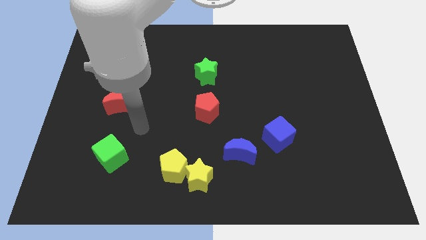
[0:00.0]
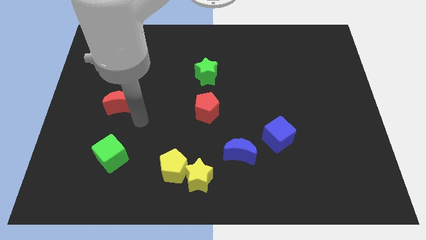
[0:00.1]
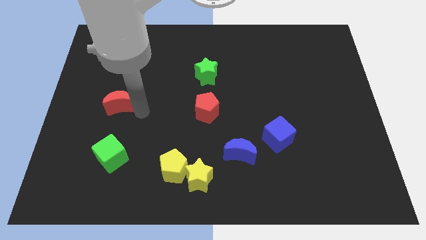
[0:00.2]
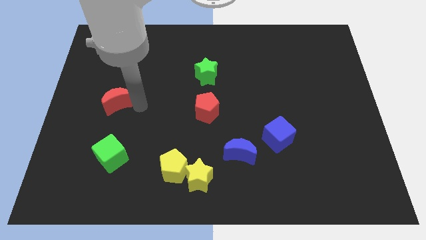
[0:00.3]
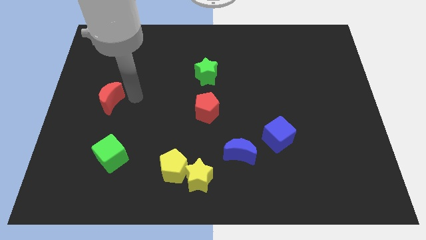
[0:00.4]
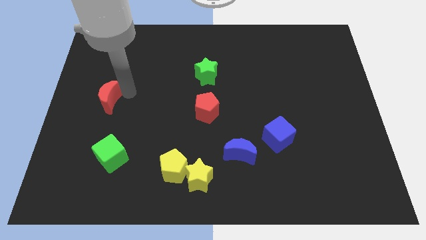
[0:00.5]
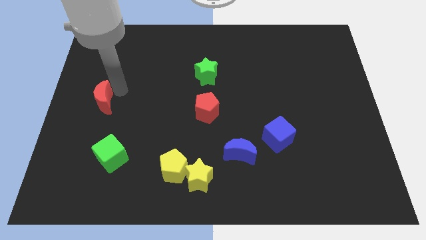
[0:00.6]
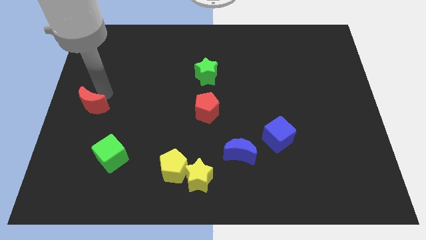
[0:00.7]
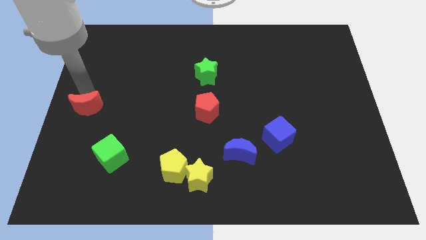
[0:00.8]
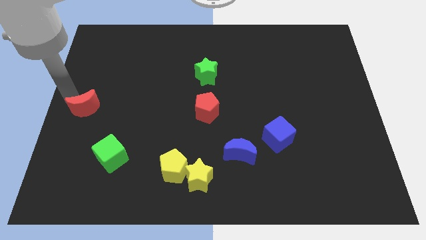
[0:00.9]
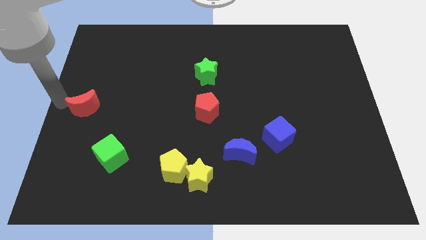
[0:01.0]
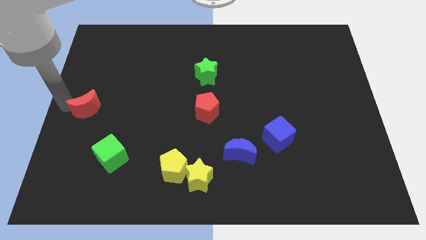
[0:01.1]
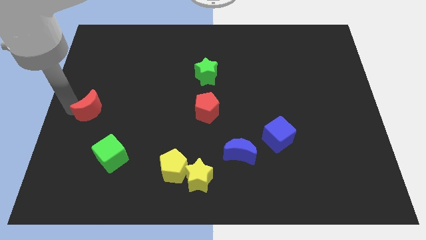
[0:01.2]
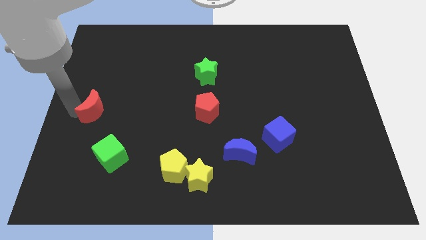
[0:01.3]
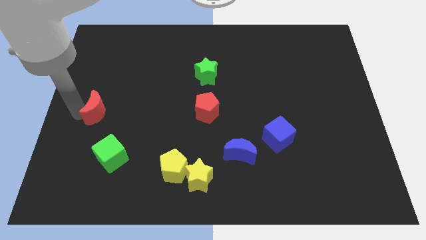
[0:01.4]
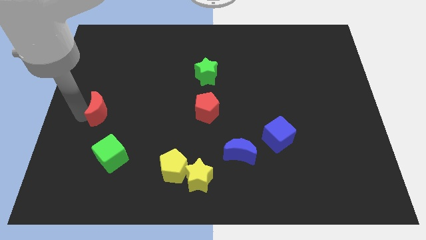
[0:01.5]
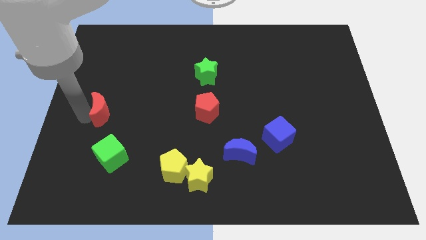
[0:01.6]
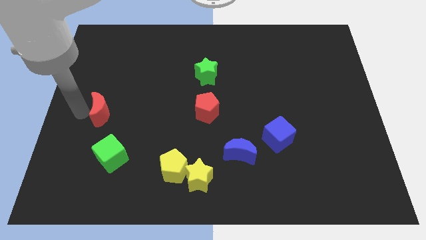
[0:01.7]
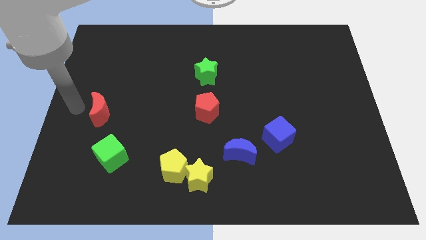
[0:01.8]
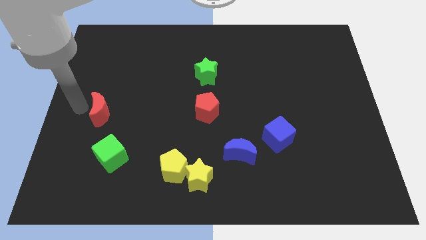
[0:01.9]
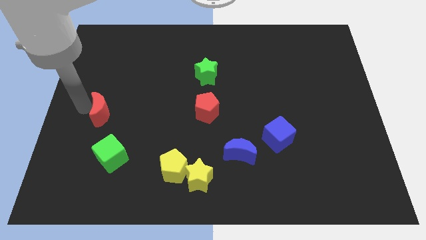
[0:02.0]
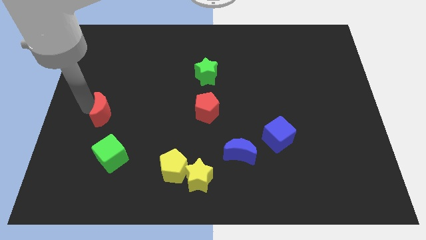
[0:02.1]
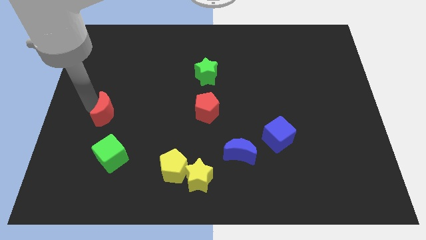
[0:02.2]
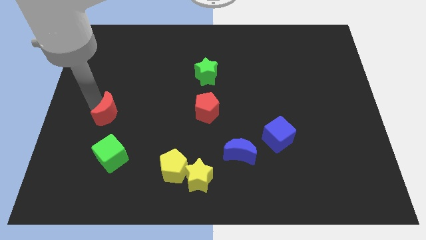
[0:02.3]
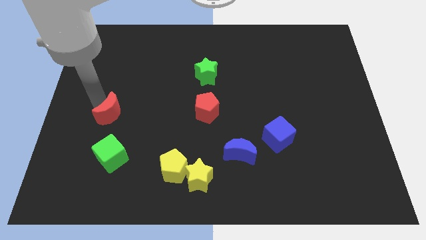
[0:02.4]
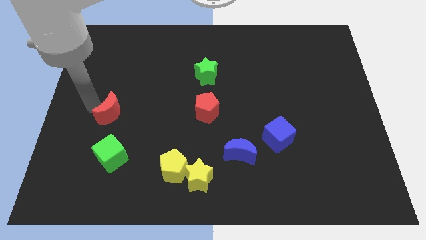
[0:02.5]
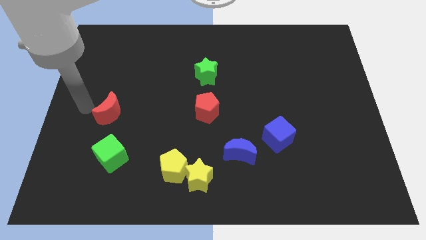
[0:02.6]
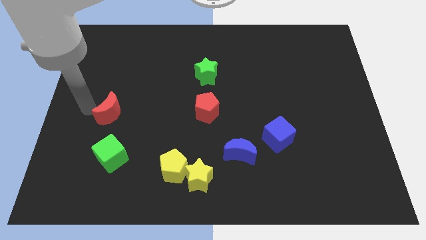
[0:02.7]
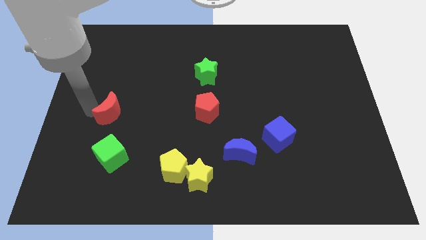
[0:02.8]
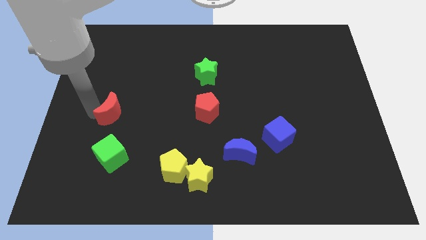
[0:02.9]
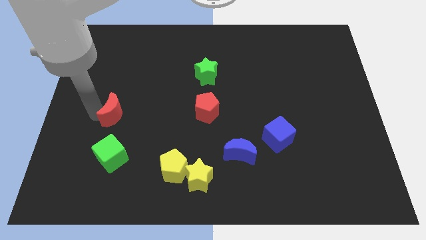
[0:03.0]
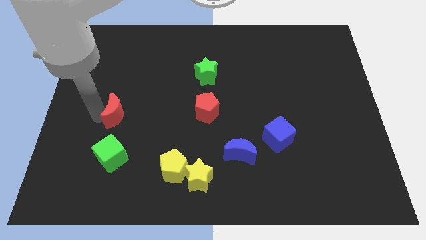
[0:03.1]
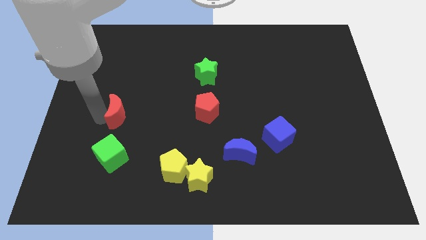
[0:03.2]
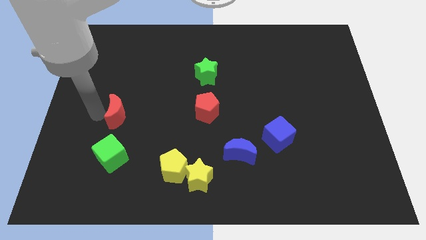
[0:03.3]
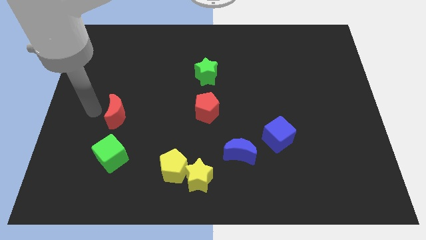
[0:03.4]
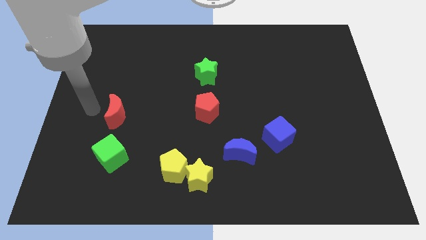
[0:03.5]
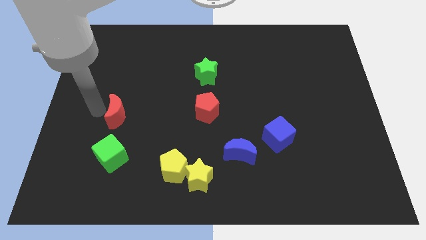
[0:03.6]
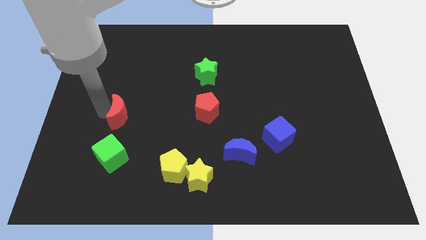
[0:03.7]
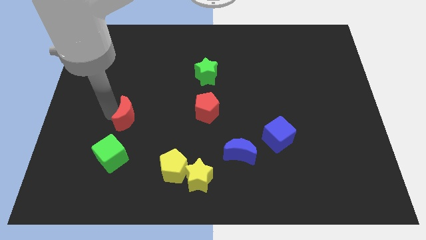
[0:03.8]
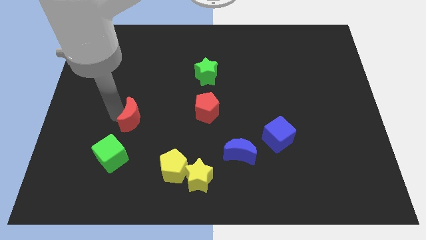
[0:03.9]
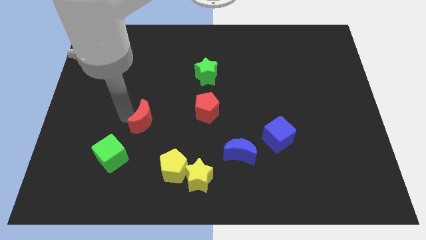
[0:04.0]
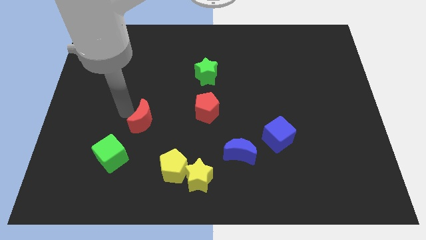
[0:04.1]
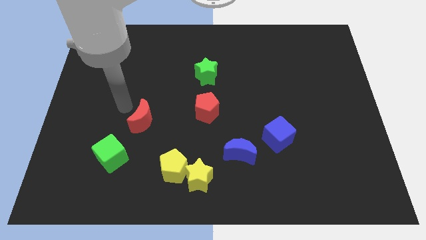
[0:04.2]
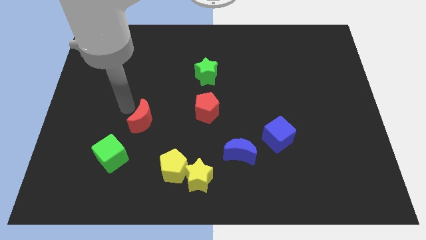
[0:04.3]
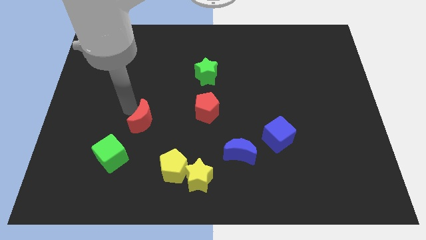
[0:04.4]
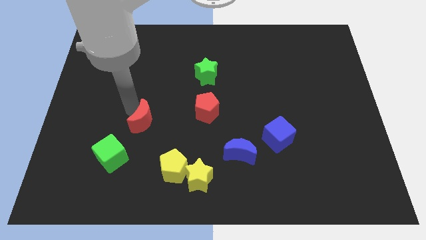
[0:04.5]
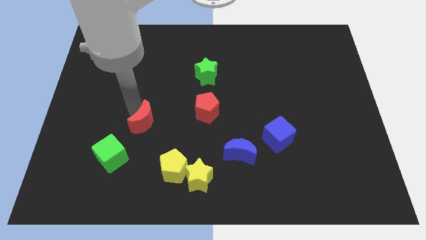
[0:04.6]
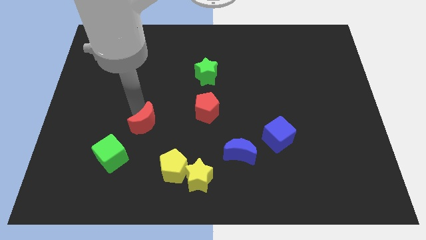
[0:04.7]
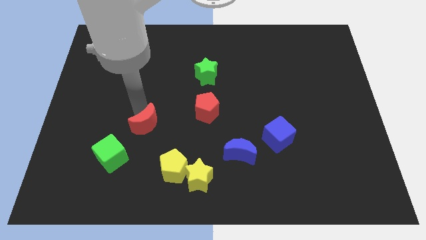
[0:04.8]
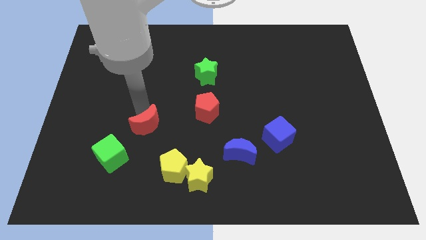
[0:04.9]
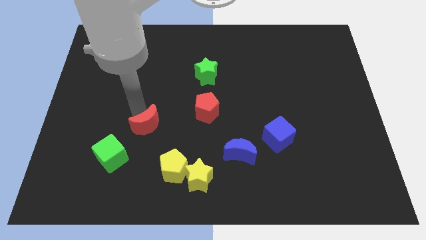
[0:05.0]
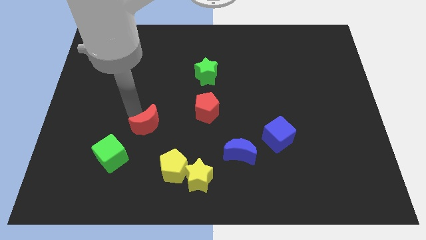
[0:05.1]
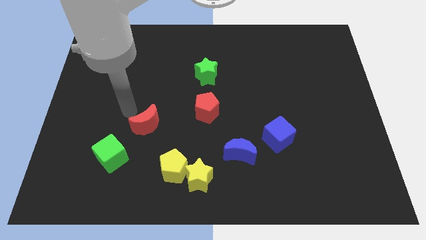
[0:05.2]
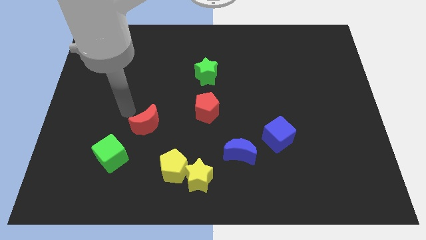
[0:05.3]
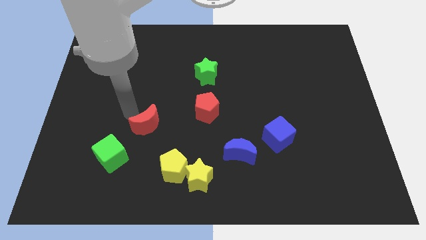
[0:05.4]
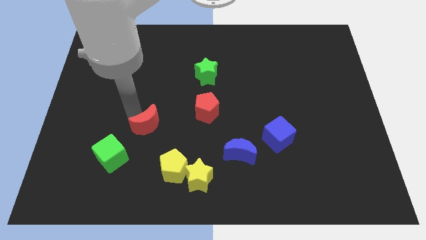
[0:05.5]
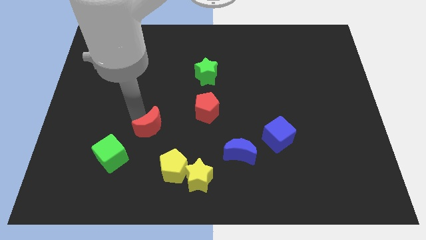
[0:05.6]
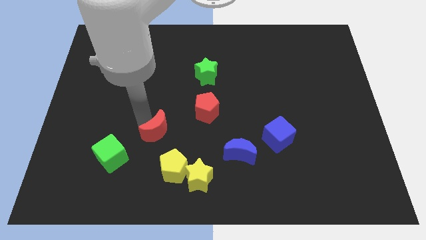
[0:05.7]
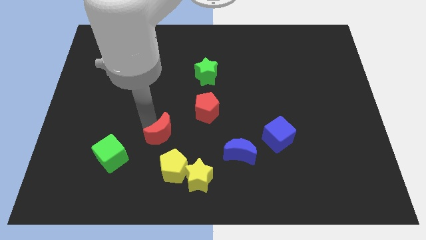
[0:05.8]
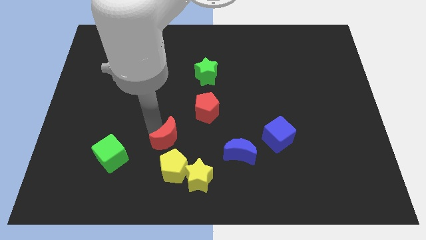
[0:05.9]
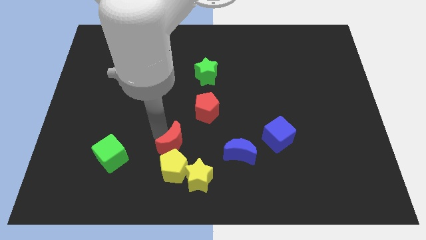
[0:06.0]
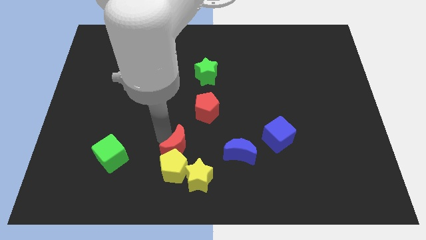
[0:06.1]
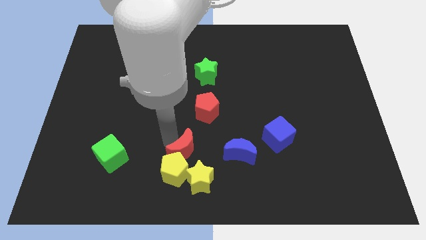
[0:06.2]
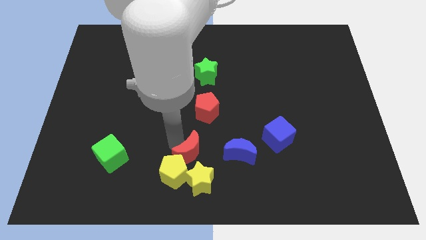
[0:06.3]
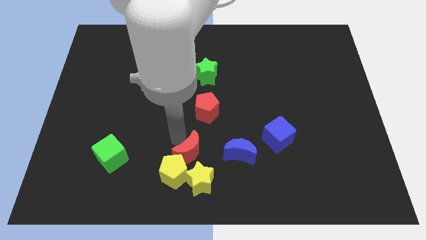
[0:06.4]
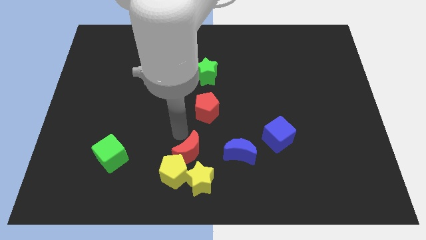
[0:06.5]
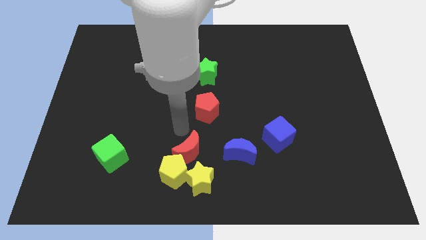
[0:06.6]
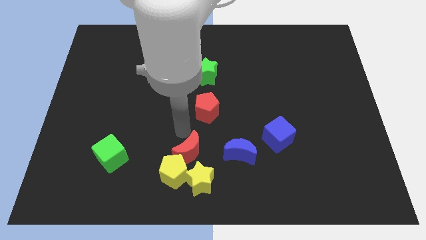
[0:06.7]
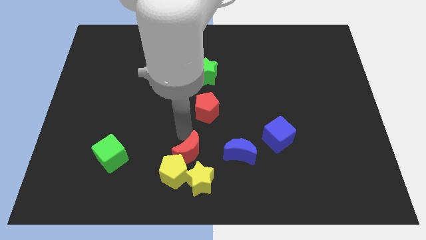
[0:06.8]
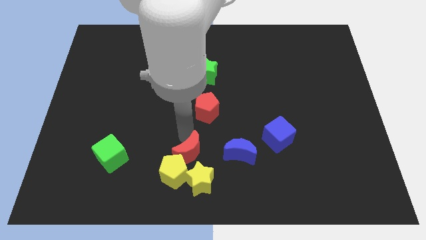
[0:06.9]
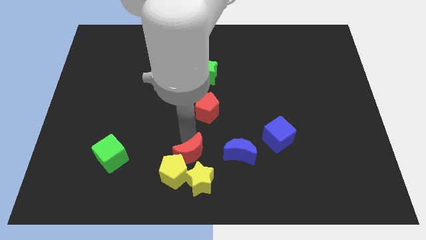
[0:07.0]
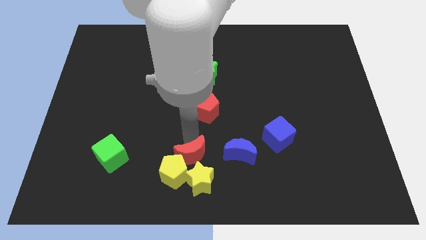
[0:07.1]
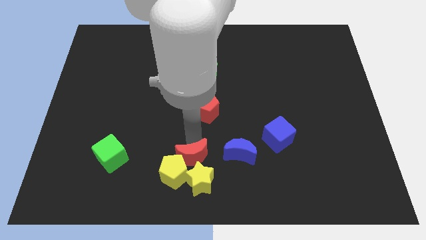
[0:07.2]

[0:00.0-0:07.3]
slide the red moon to the yellow star

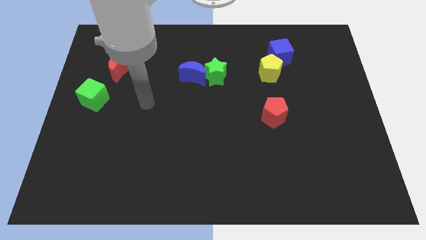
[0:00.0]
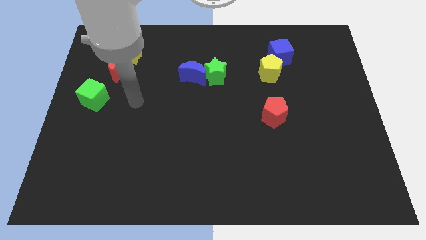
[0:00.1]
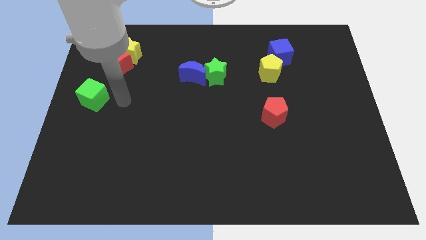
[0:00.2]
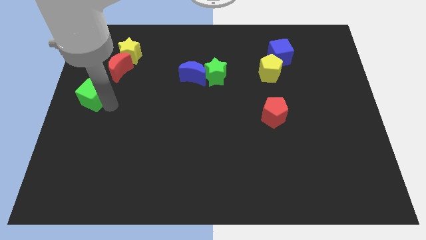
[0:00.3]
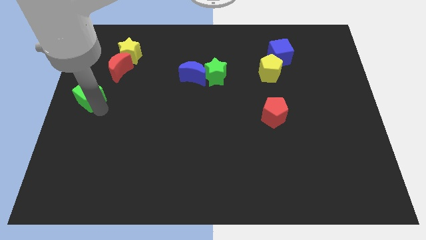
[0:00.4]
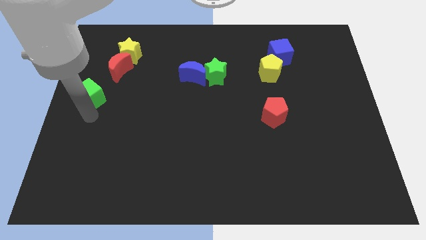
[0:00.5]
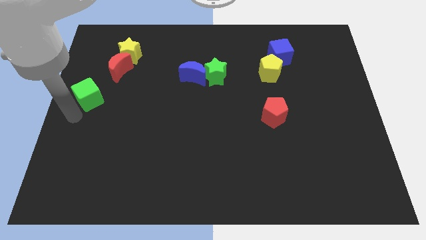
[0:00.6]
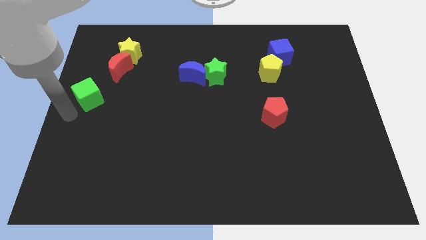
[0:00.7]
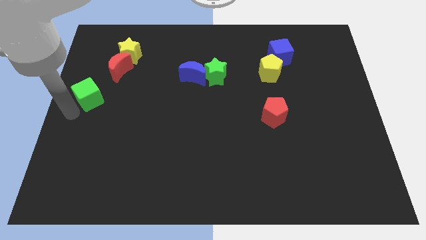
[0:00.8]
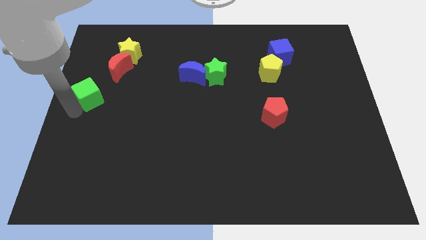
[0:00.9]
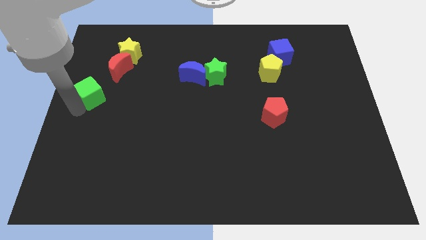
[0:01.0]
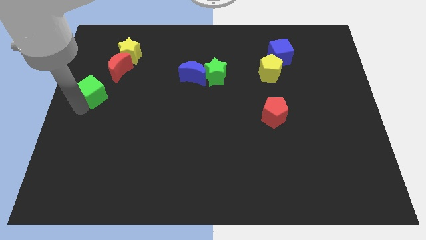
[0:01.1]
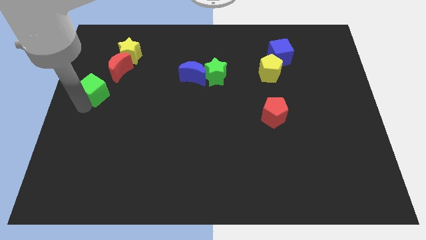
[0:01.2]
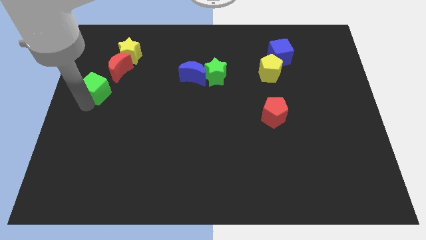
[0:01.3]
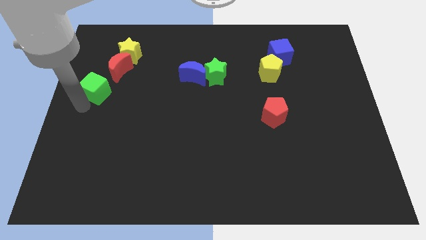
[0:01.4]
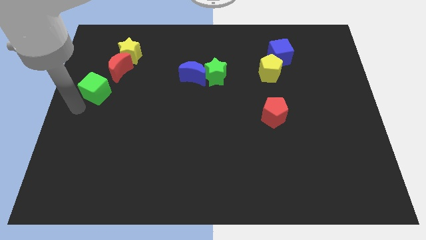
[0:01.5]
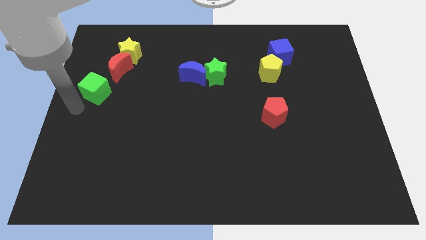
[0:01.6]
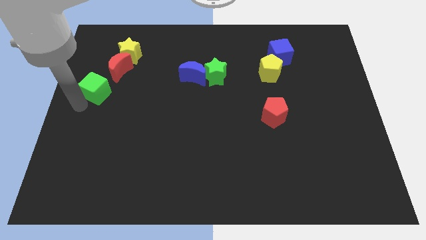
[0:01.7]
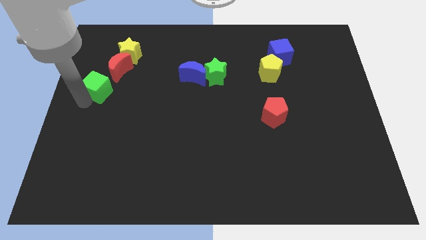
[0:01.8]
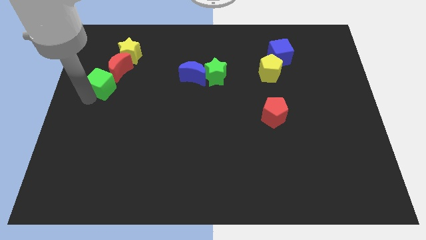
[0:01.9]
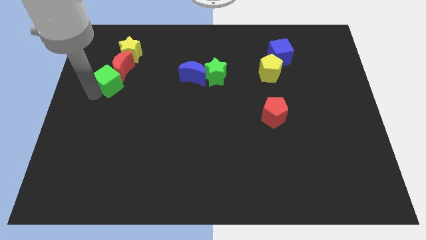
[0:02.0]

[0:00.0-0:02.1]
move the green cube towards the red moon
